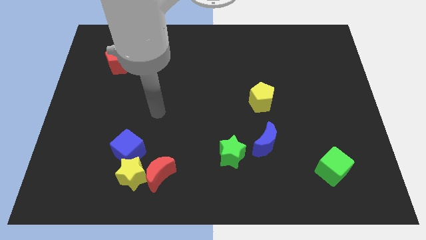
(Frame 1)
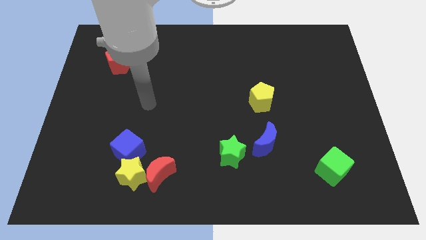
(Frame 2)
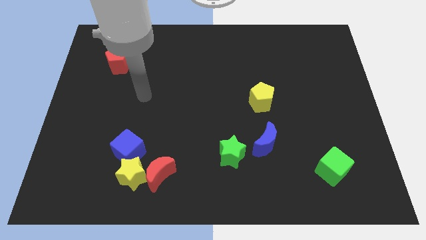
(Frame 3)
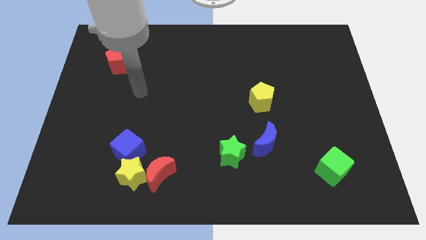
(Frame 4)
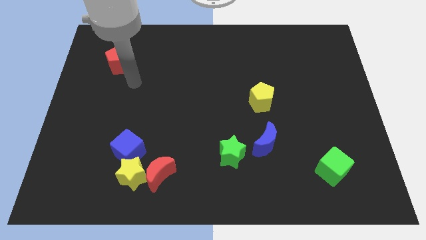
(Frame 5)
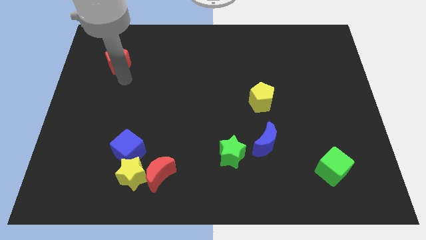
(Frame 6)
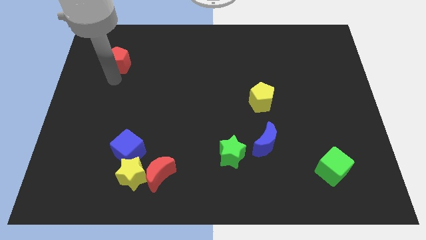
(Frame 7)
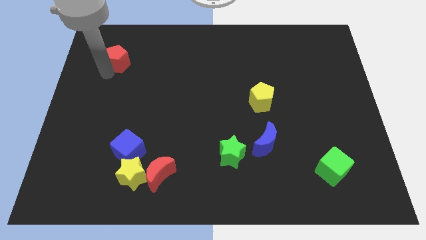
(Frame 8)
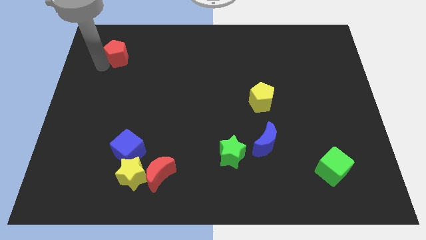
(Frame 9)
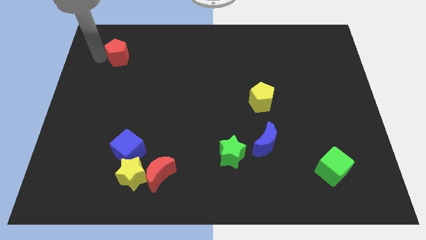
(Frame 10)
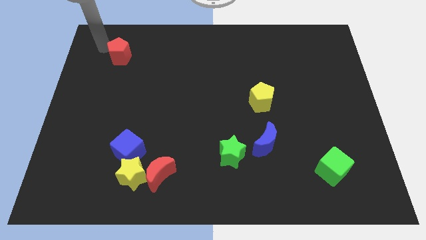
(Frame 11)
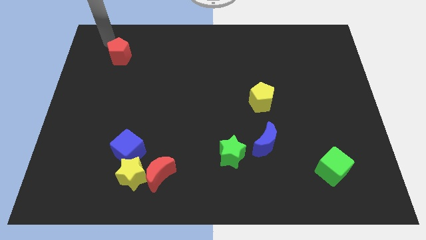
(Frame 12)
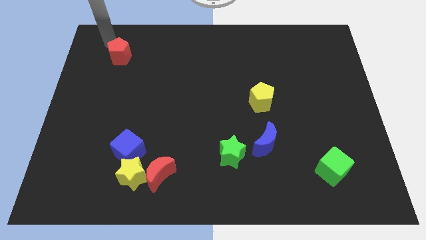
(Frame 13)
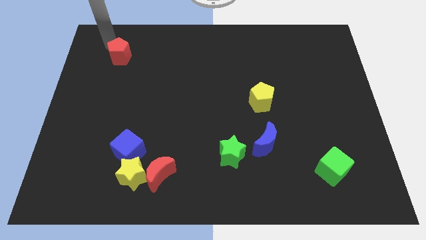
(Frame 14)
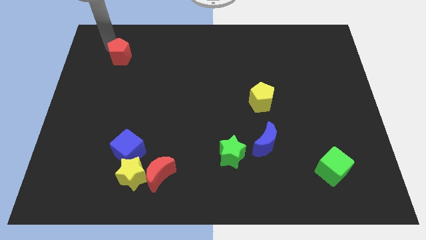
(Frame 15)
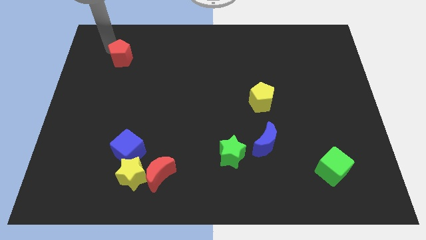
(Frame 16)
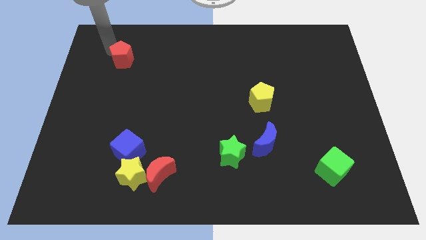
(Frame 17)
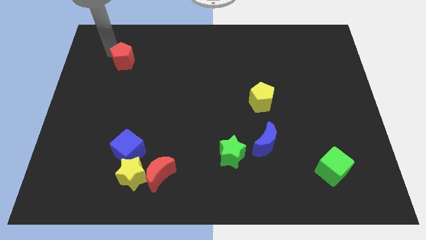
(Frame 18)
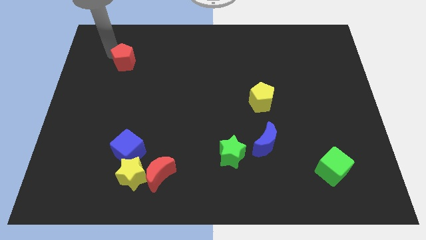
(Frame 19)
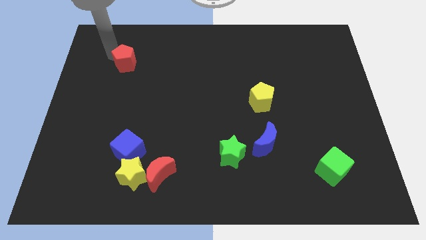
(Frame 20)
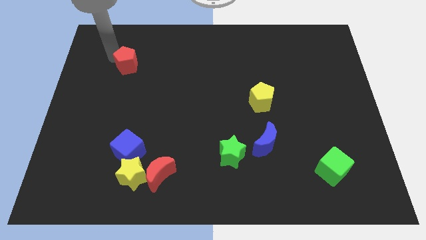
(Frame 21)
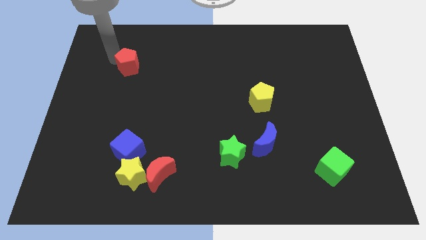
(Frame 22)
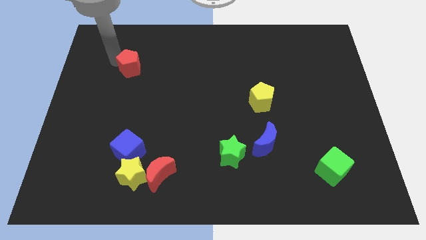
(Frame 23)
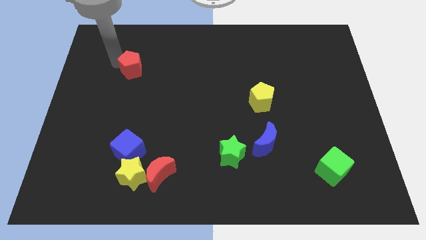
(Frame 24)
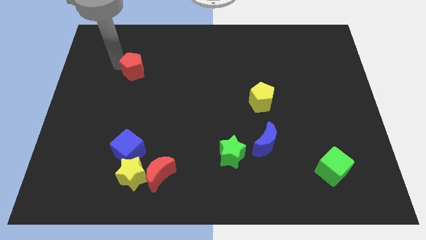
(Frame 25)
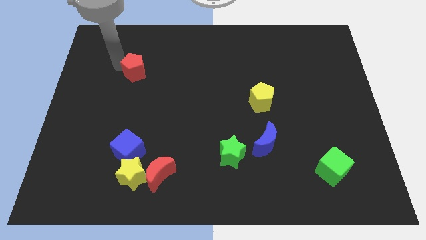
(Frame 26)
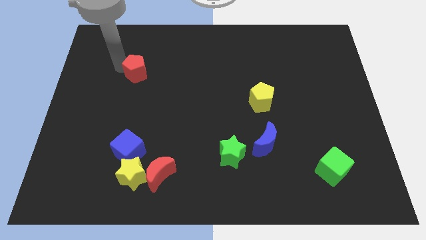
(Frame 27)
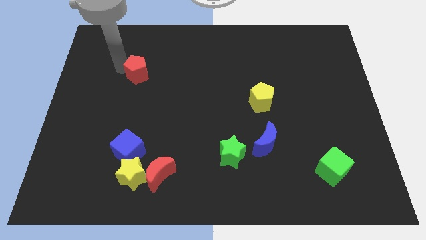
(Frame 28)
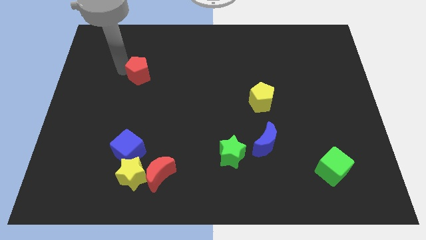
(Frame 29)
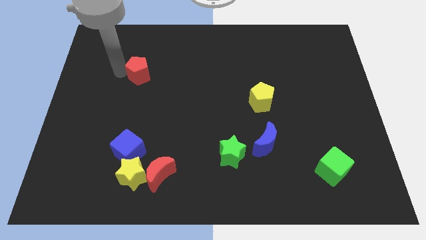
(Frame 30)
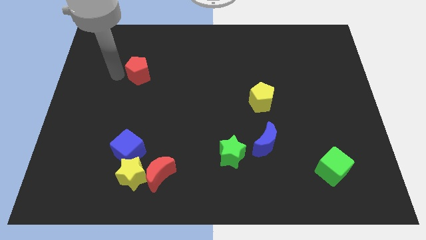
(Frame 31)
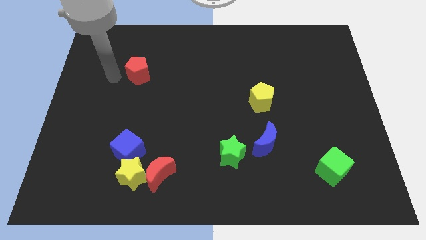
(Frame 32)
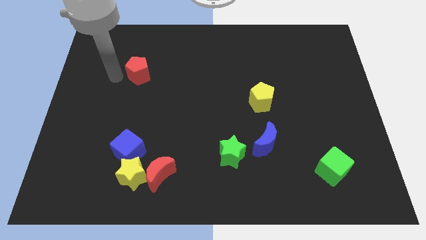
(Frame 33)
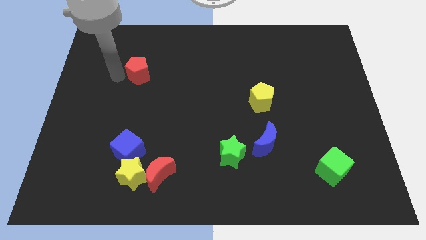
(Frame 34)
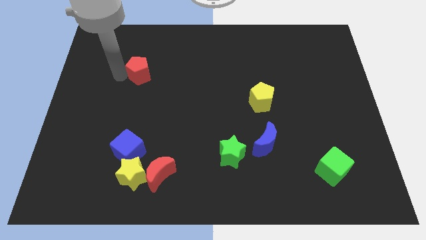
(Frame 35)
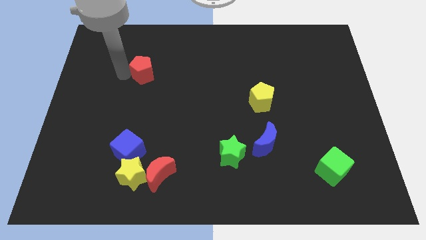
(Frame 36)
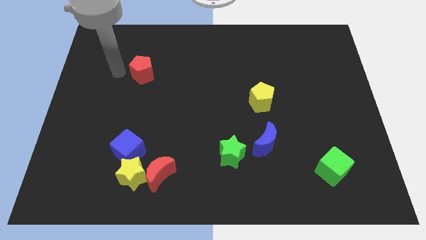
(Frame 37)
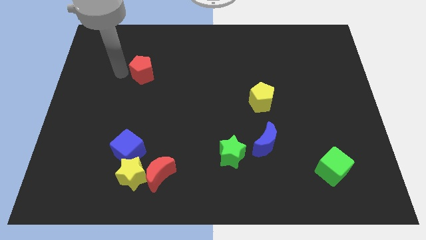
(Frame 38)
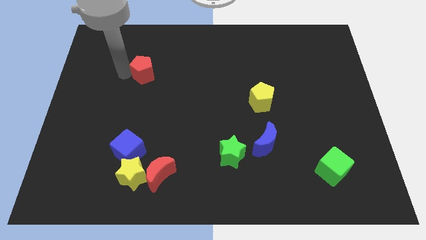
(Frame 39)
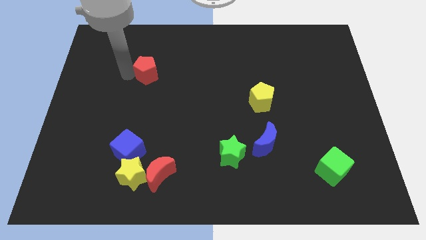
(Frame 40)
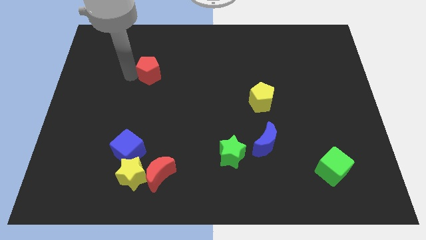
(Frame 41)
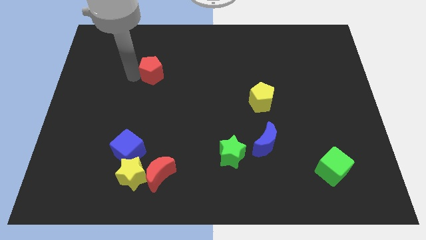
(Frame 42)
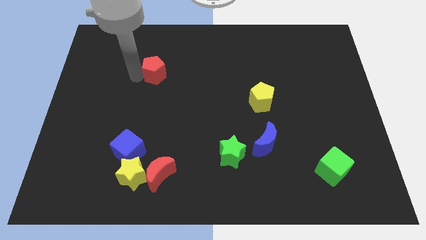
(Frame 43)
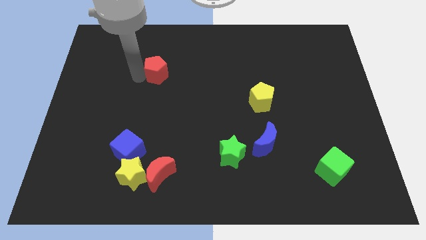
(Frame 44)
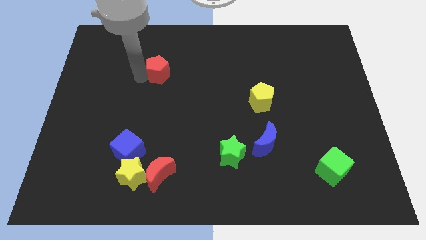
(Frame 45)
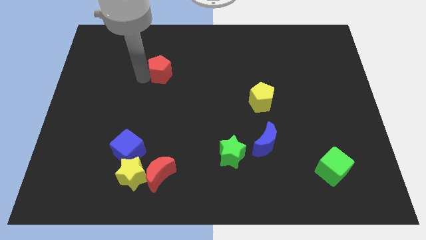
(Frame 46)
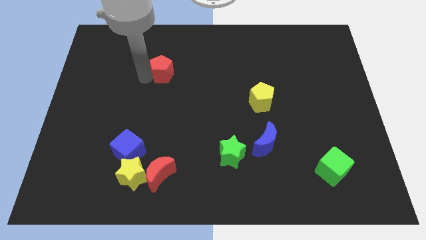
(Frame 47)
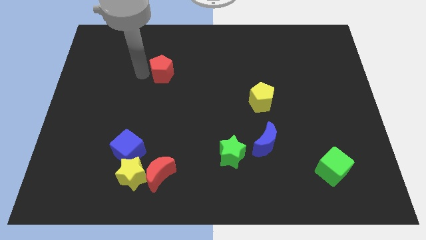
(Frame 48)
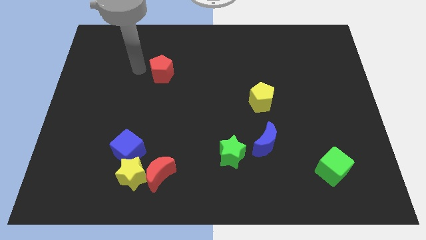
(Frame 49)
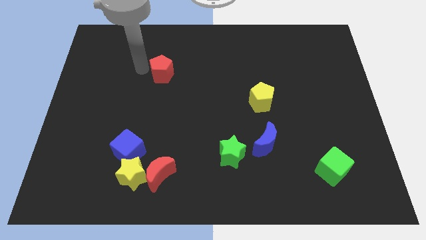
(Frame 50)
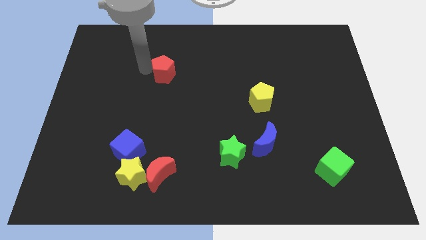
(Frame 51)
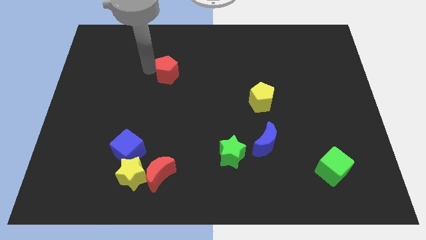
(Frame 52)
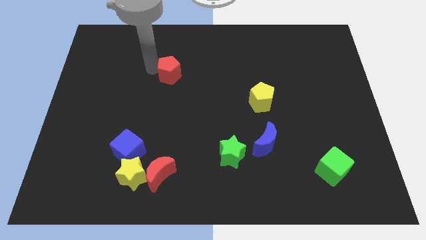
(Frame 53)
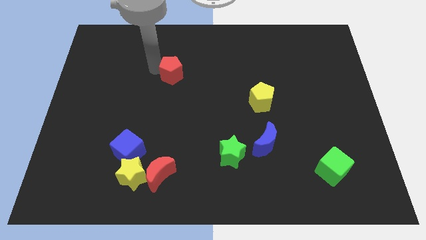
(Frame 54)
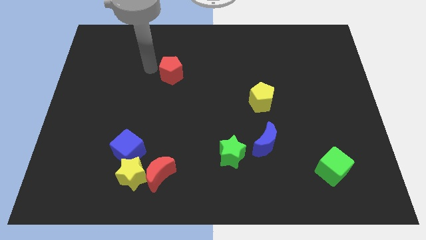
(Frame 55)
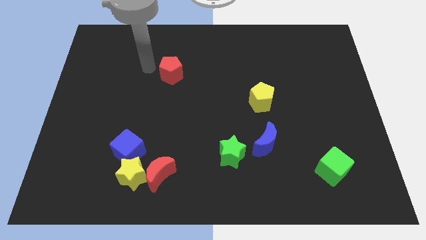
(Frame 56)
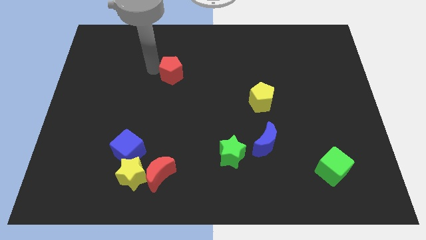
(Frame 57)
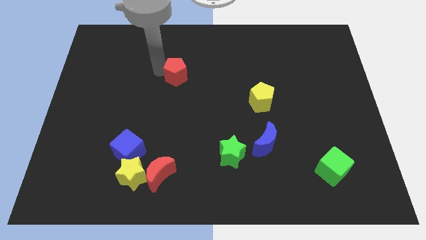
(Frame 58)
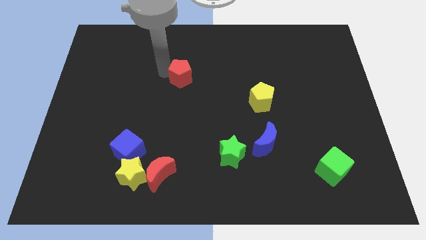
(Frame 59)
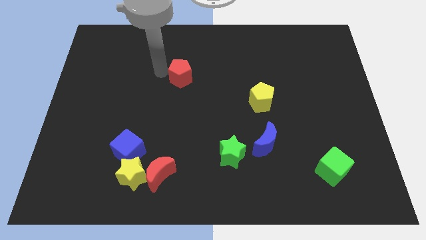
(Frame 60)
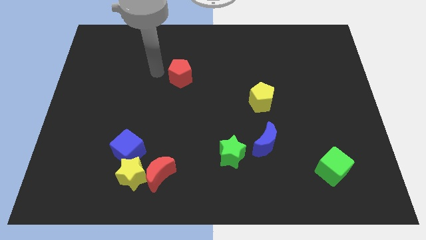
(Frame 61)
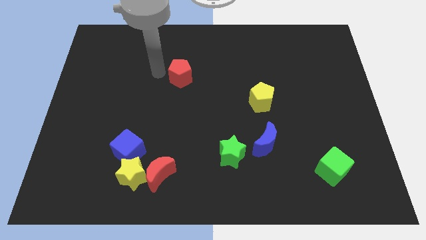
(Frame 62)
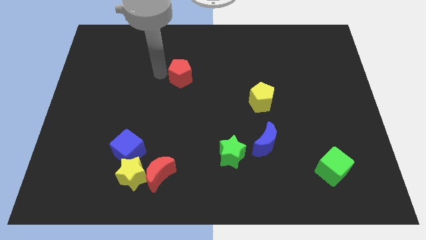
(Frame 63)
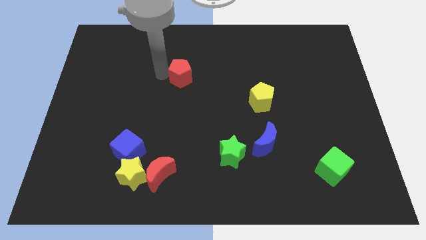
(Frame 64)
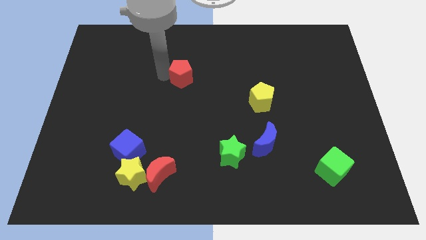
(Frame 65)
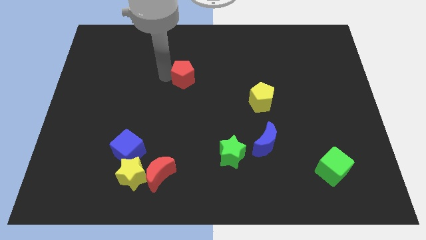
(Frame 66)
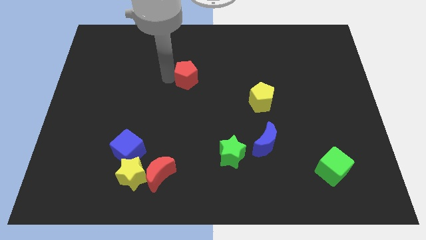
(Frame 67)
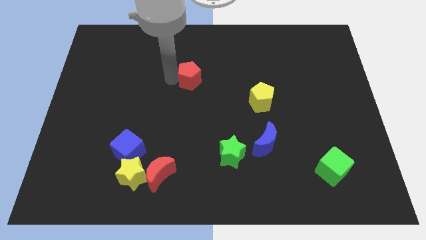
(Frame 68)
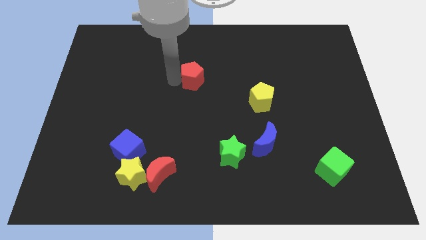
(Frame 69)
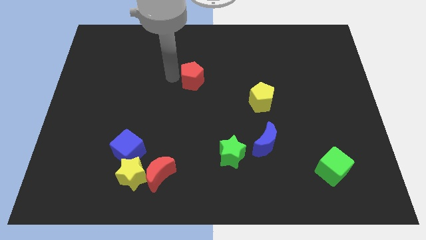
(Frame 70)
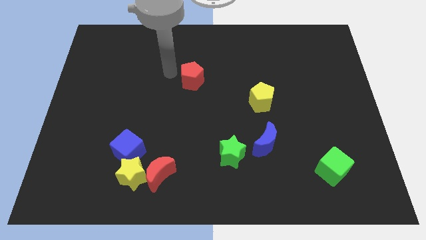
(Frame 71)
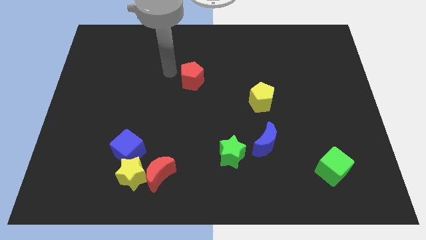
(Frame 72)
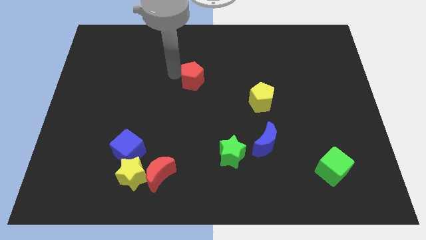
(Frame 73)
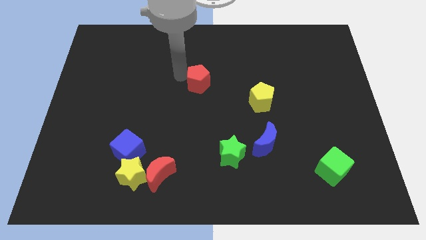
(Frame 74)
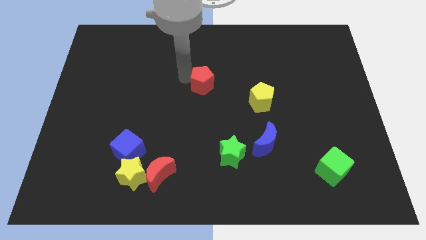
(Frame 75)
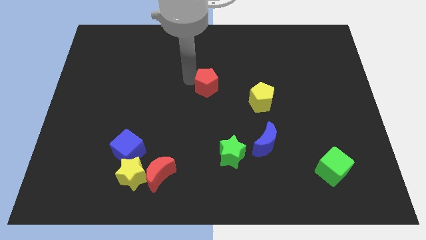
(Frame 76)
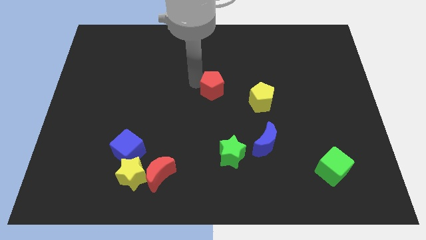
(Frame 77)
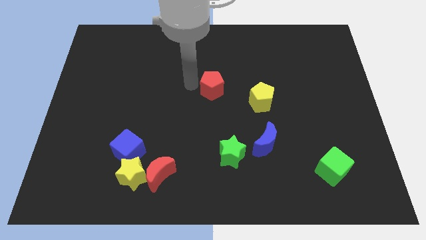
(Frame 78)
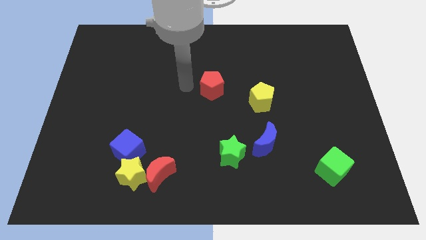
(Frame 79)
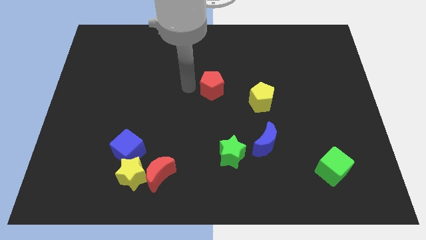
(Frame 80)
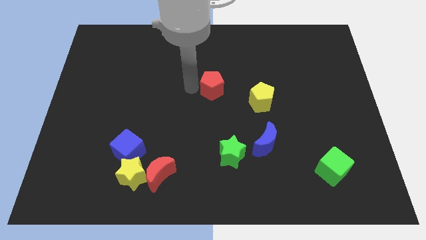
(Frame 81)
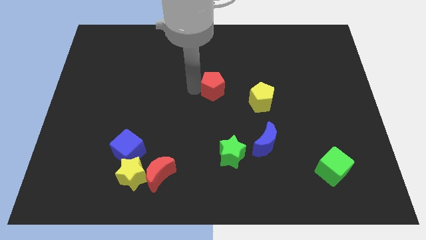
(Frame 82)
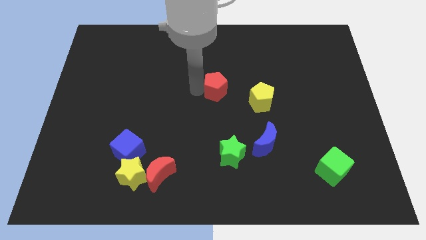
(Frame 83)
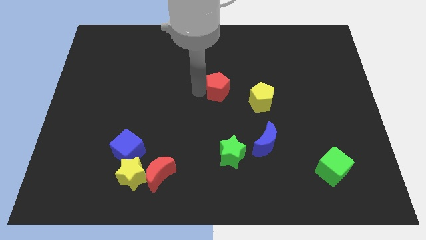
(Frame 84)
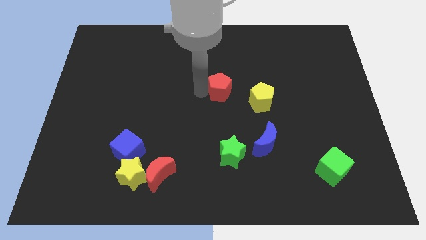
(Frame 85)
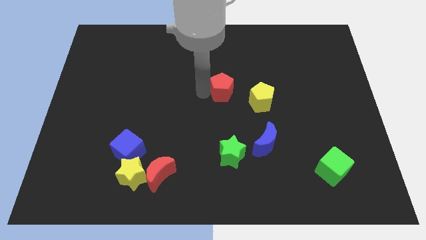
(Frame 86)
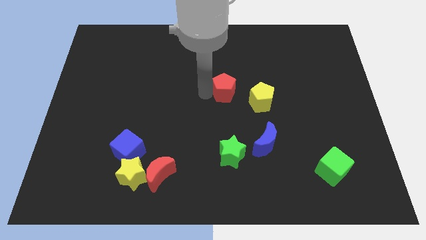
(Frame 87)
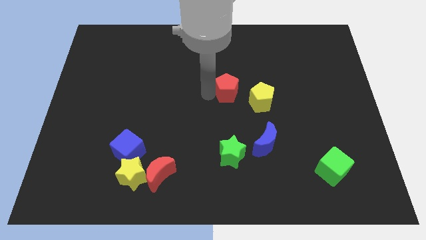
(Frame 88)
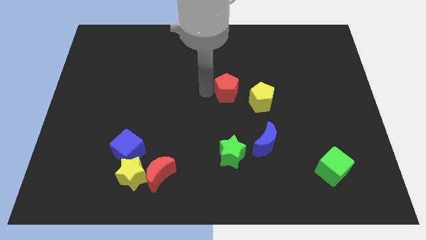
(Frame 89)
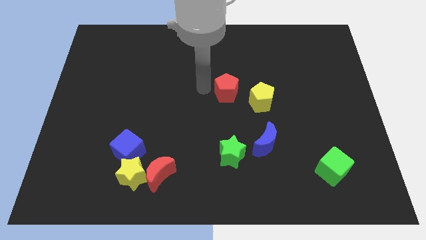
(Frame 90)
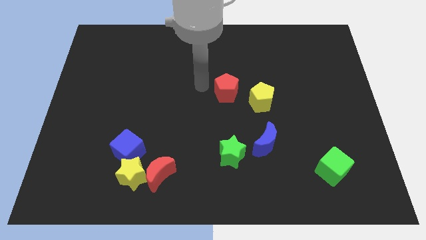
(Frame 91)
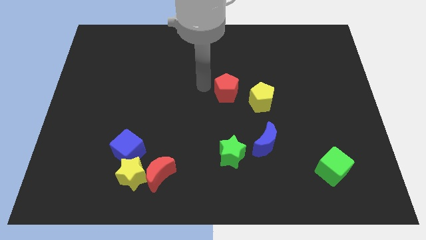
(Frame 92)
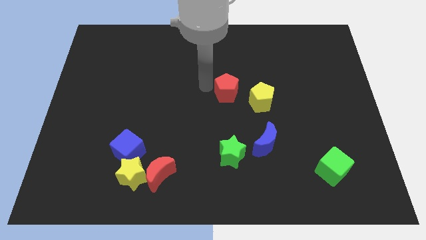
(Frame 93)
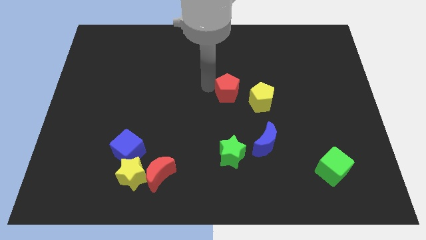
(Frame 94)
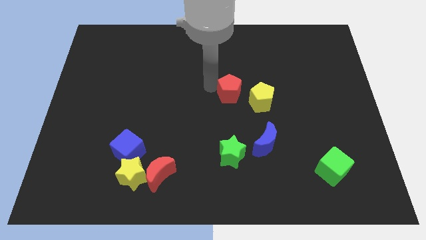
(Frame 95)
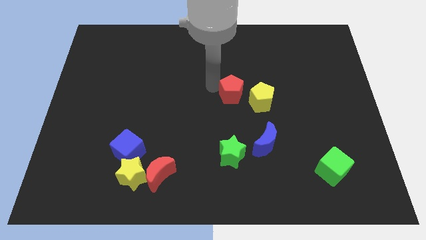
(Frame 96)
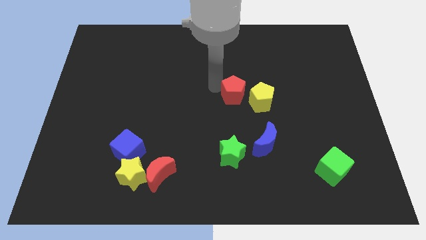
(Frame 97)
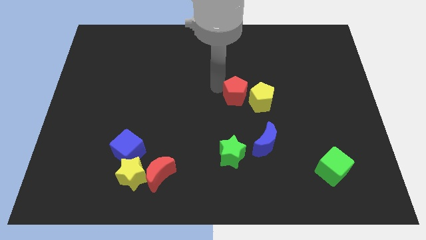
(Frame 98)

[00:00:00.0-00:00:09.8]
slide the red pentagon towards the yellow pentagon
